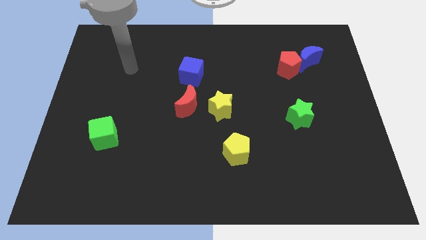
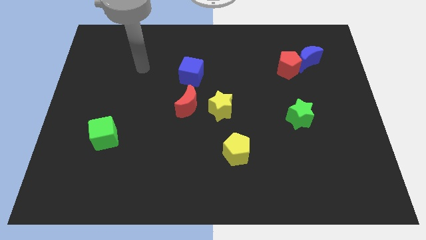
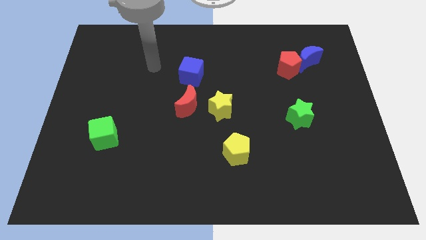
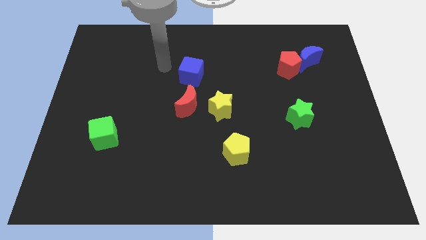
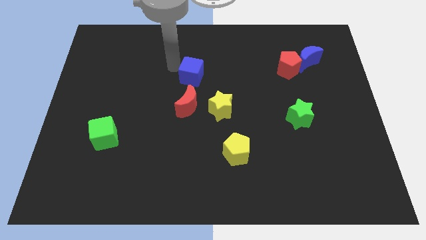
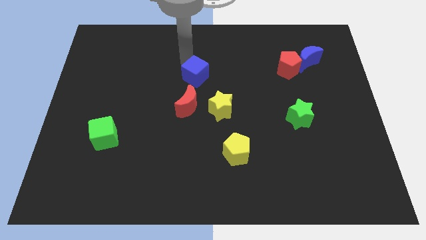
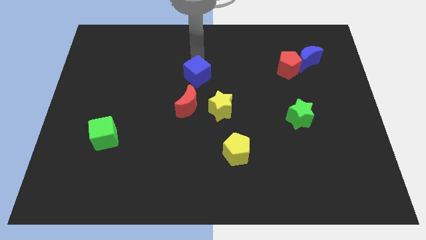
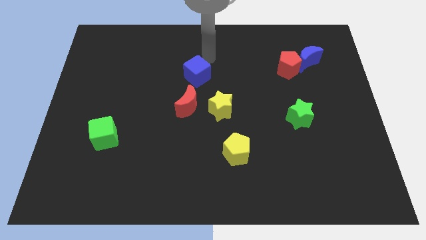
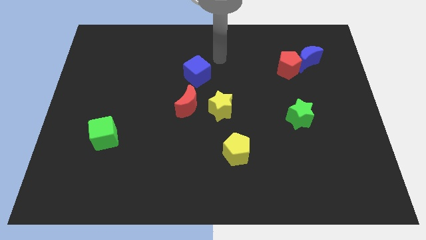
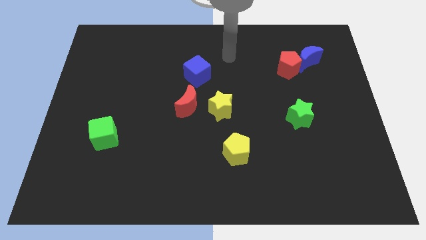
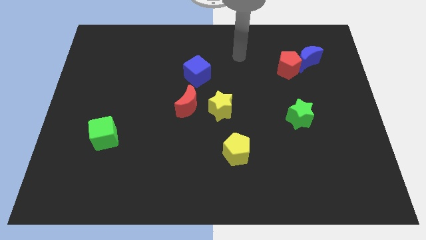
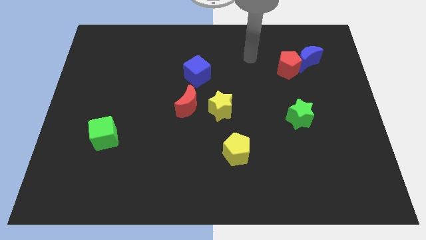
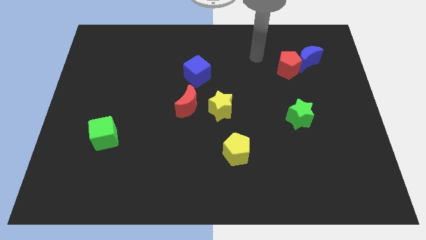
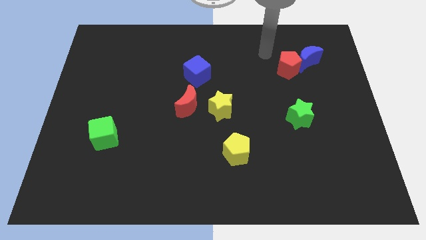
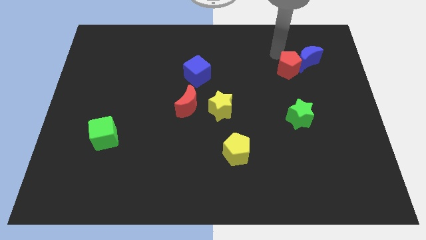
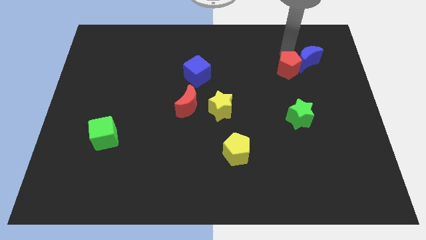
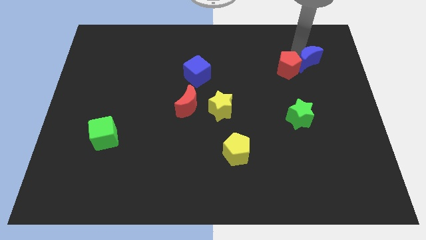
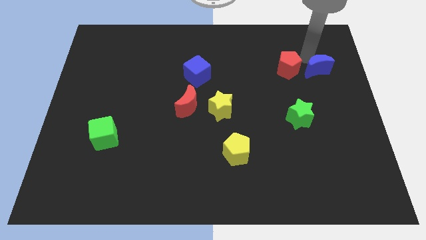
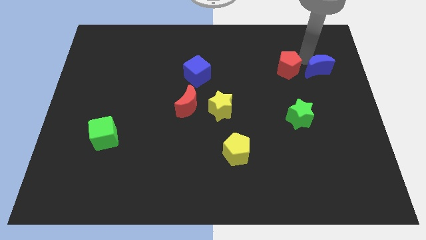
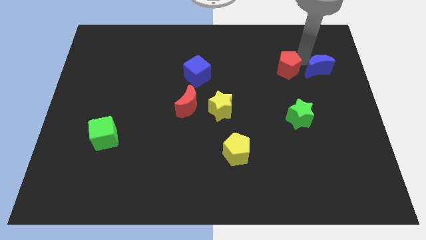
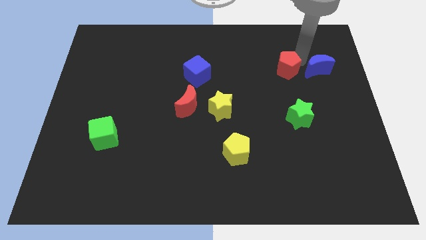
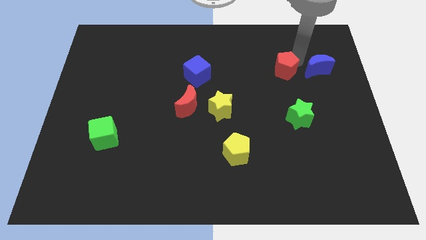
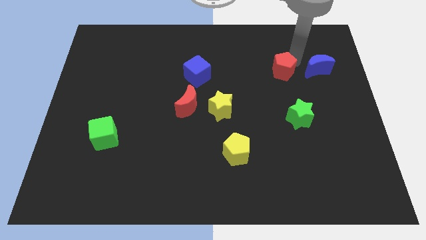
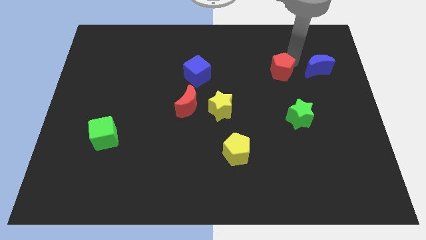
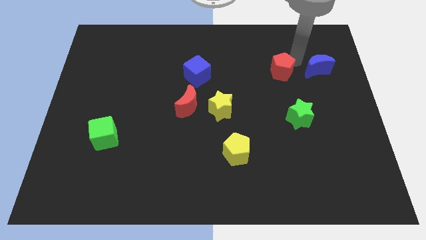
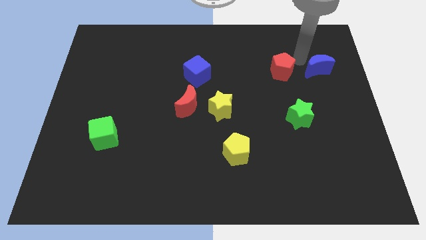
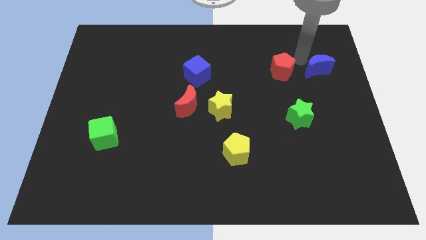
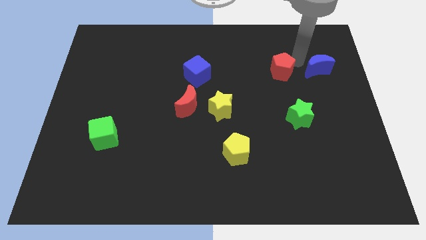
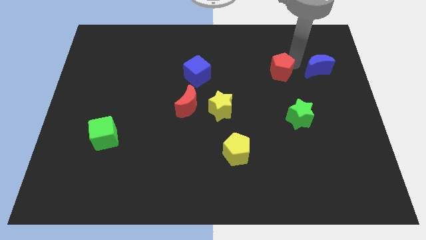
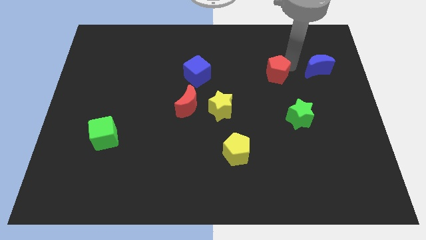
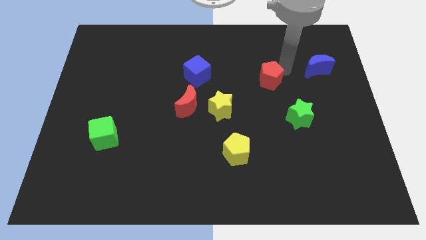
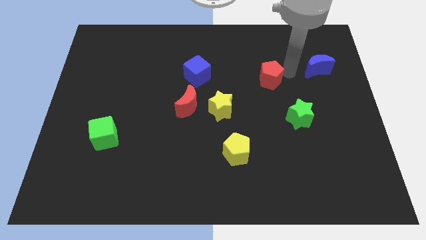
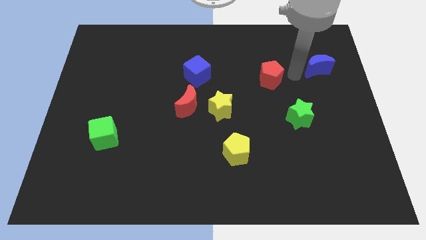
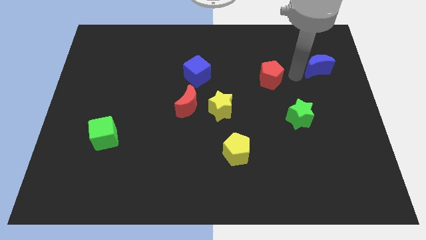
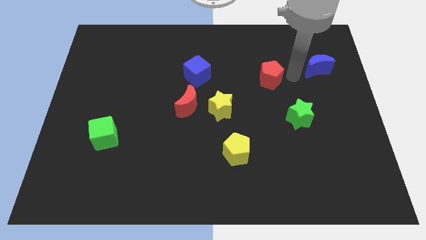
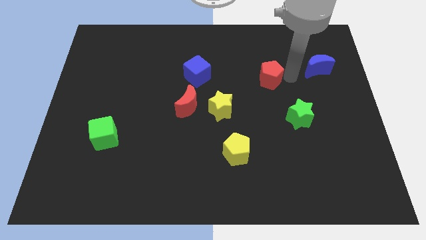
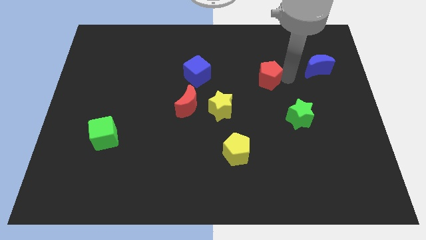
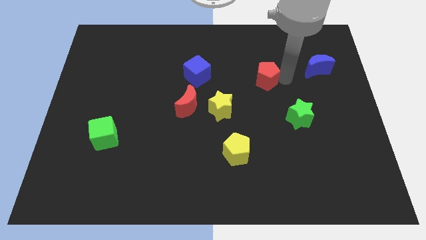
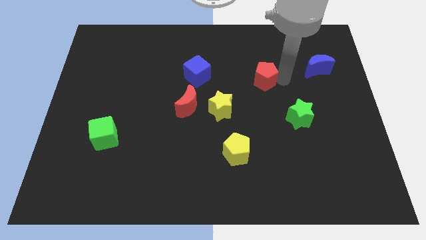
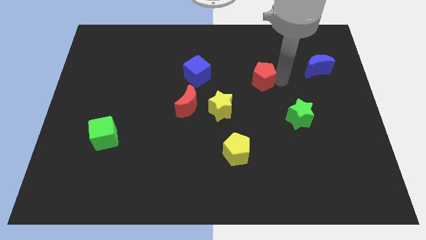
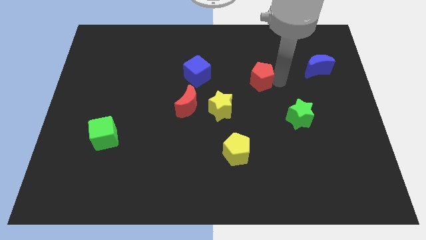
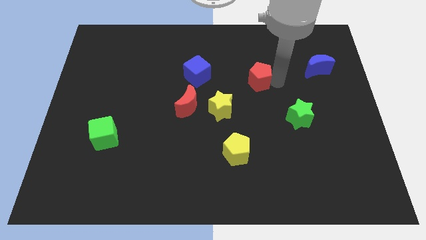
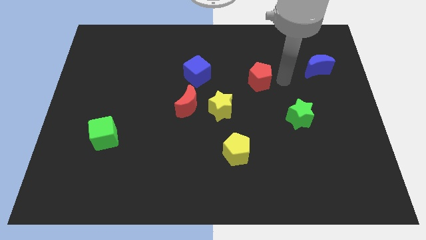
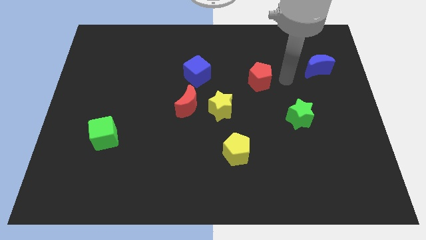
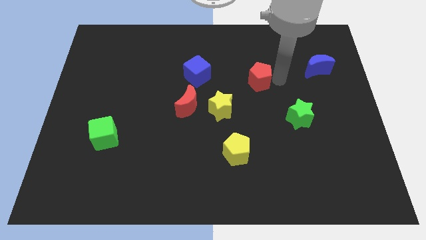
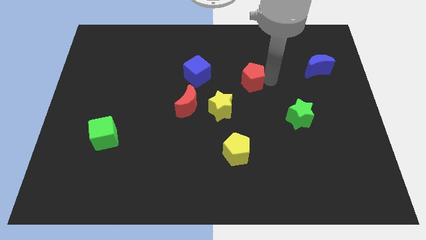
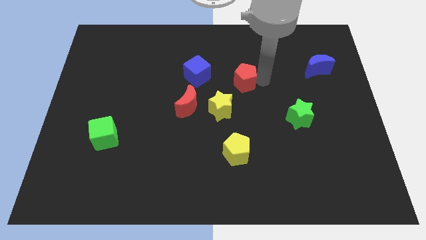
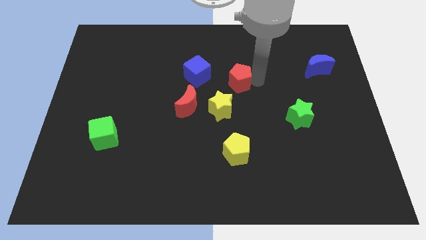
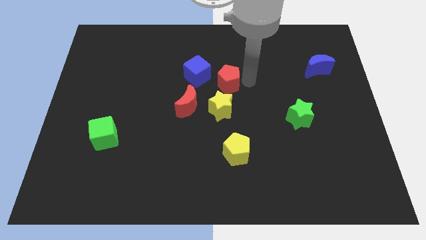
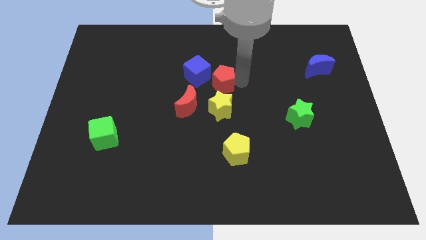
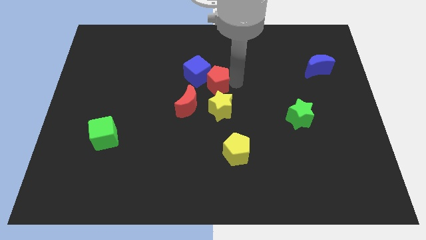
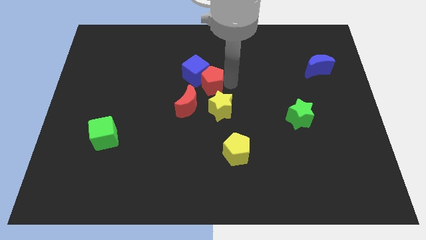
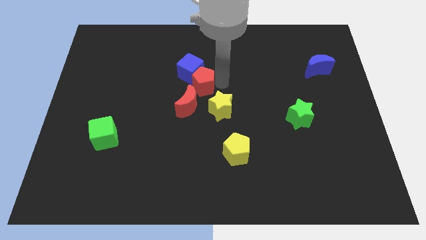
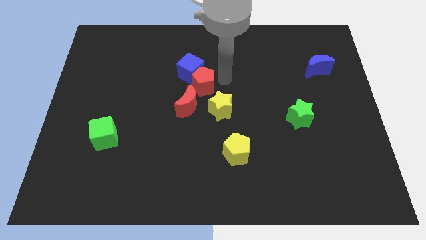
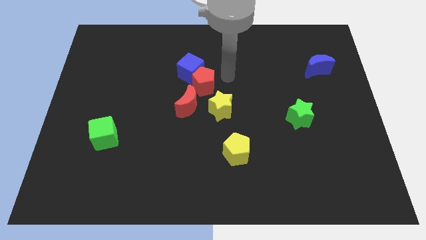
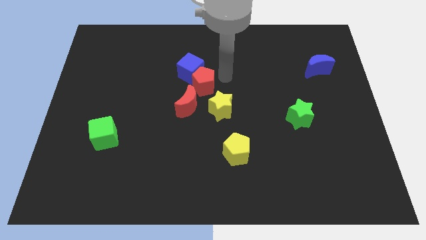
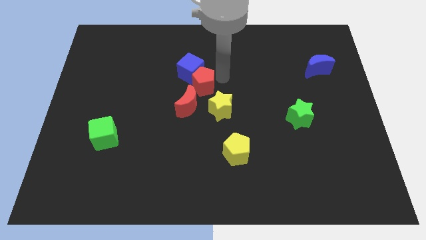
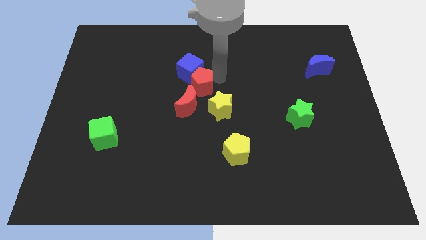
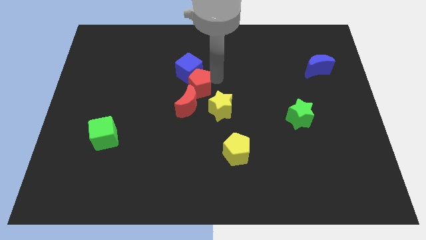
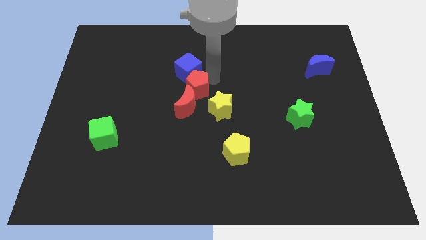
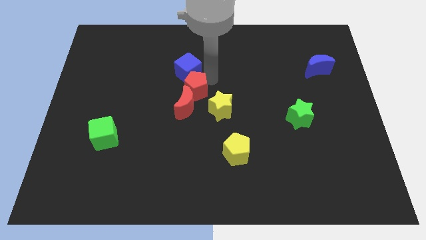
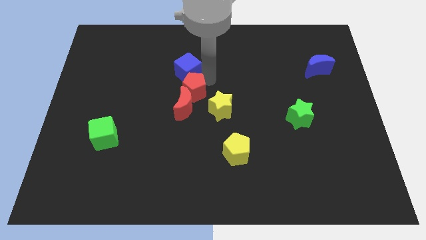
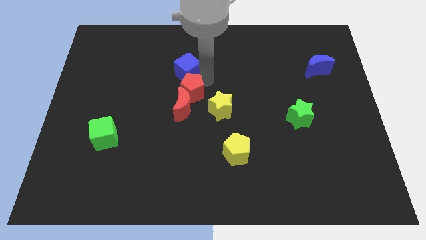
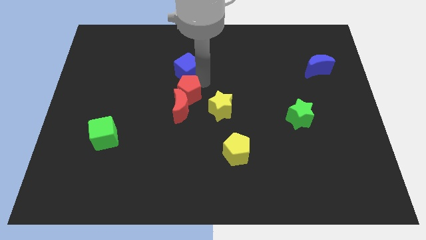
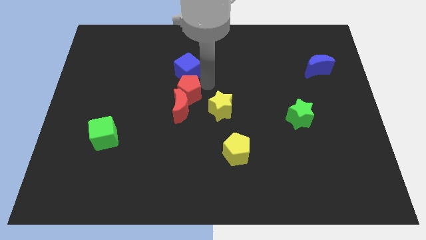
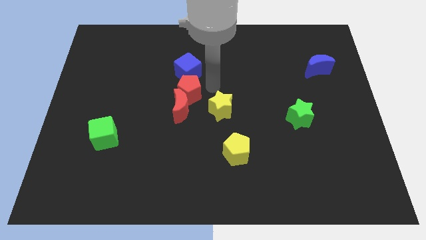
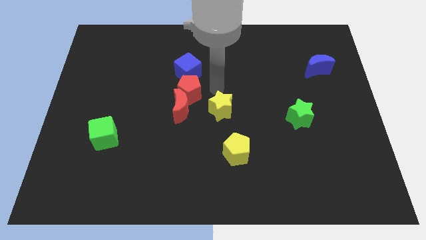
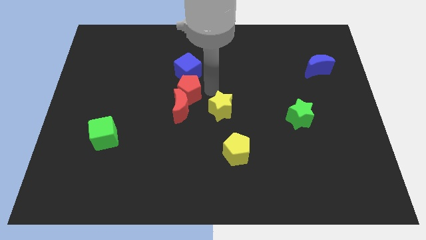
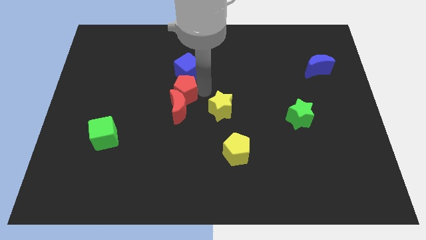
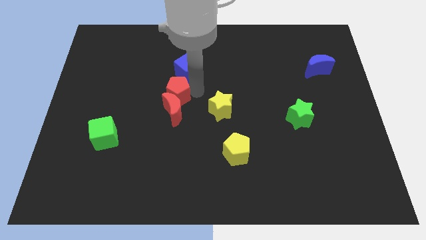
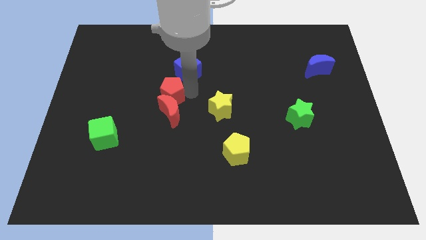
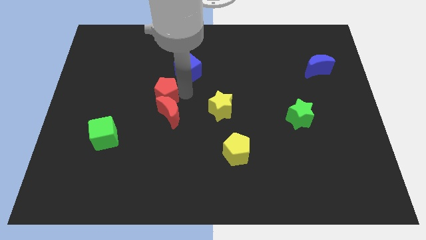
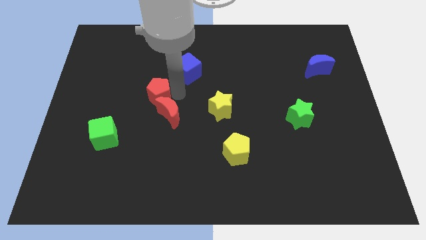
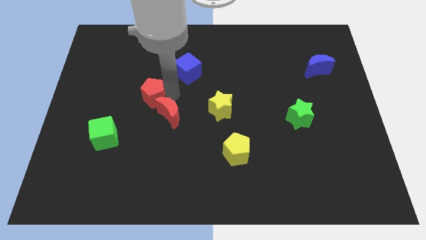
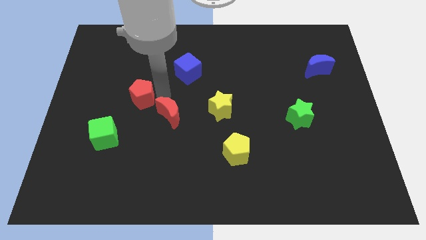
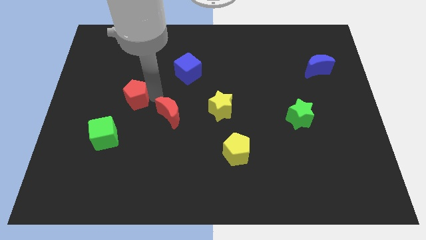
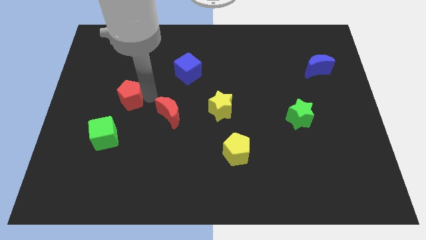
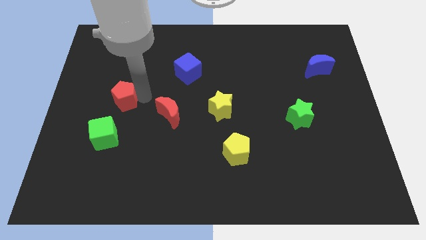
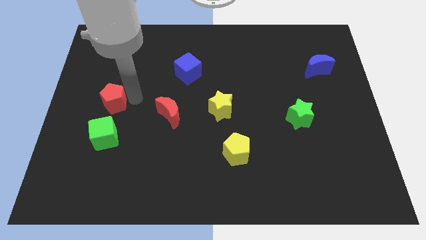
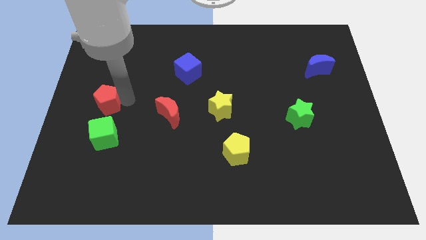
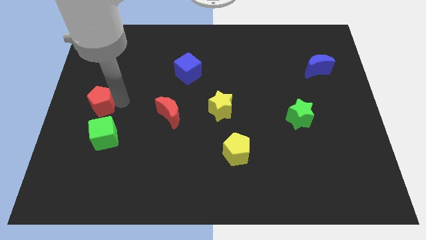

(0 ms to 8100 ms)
put the red pentagon to the center left
